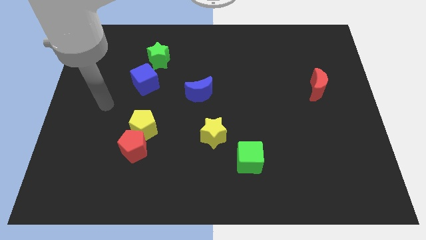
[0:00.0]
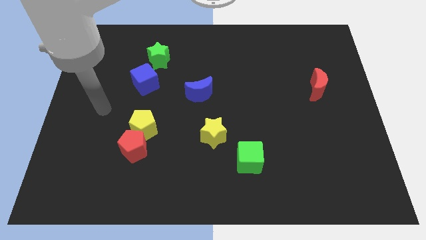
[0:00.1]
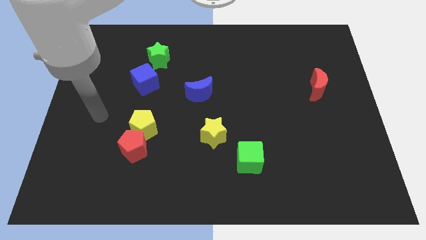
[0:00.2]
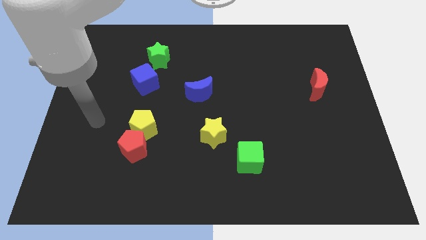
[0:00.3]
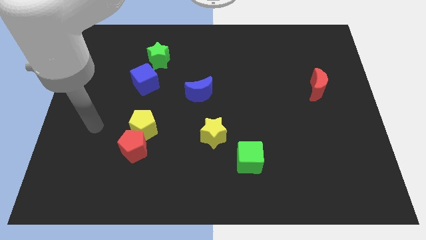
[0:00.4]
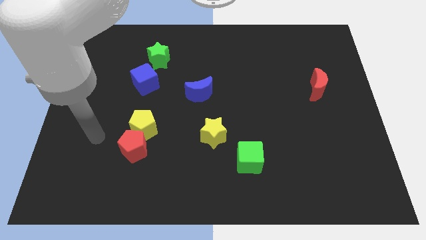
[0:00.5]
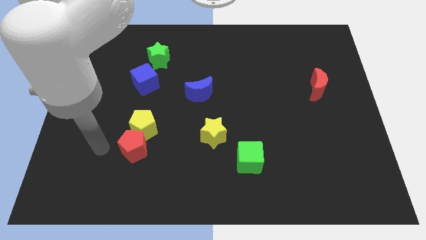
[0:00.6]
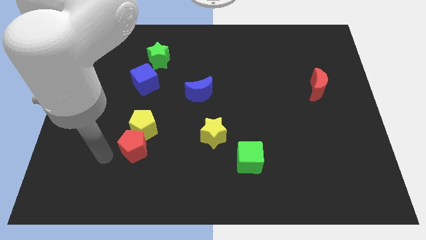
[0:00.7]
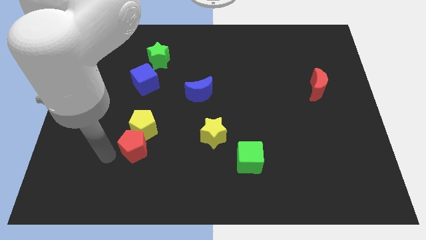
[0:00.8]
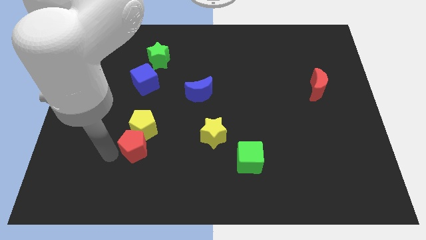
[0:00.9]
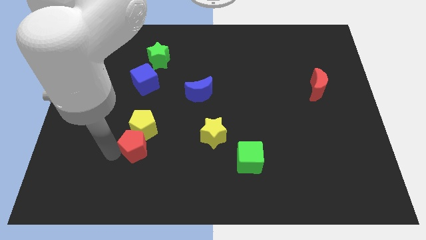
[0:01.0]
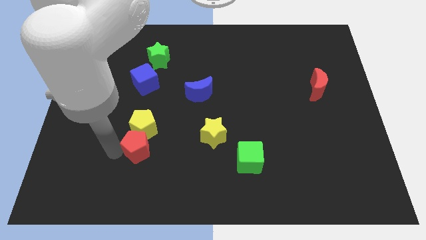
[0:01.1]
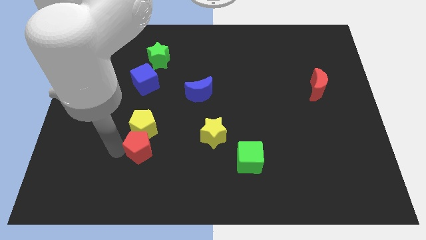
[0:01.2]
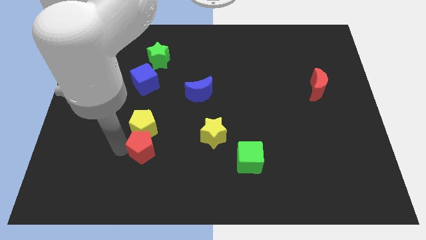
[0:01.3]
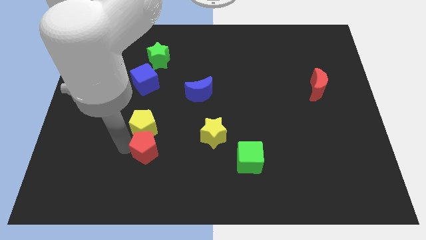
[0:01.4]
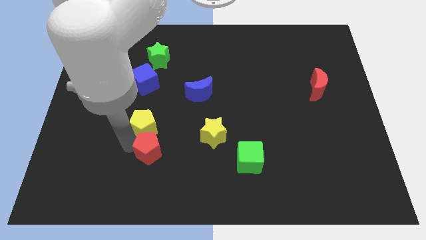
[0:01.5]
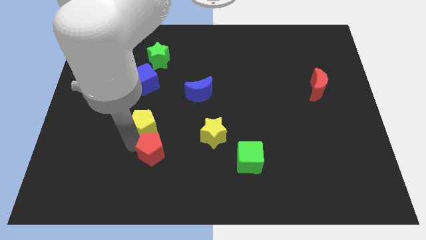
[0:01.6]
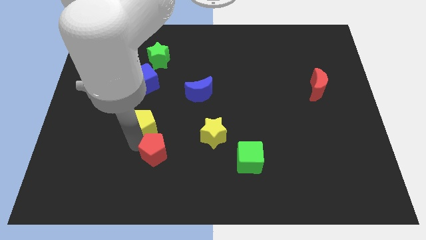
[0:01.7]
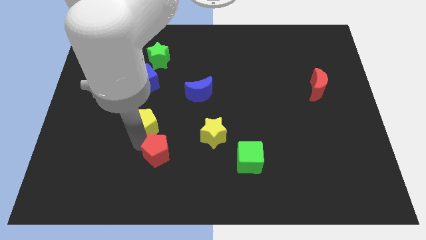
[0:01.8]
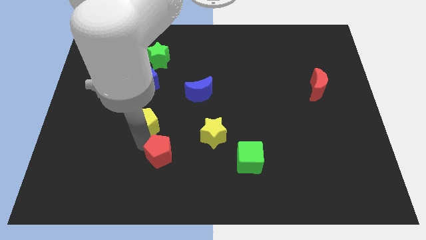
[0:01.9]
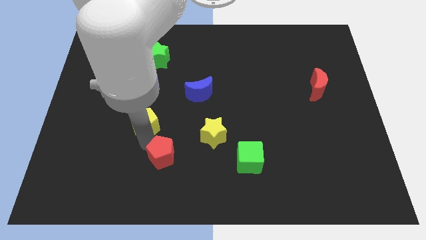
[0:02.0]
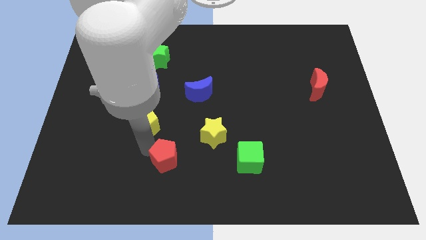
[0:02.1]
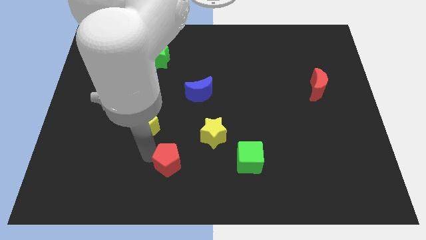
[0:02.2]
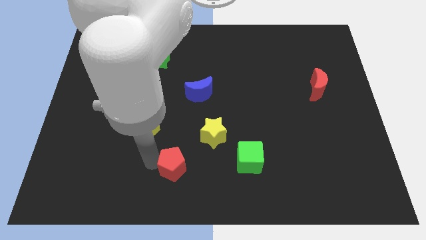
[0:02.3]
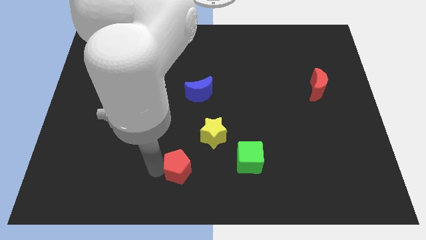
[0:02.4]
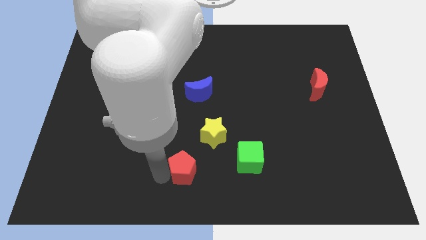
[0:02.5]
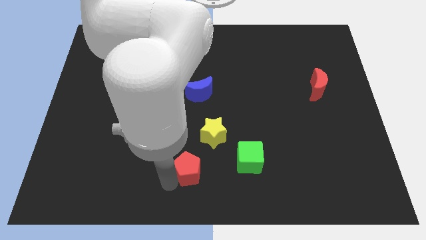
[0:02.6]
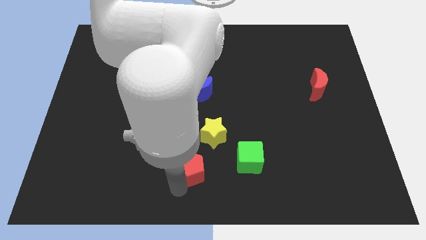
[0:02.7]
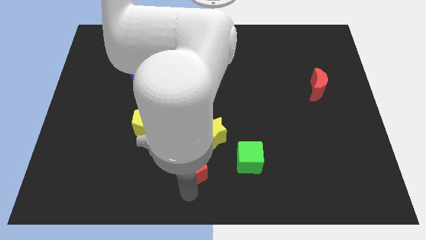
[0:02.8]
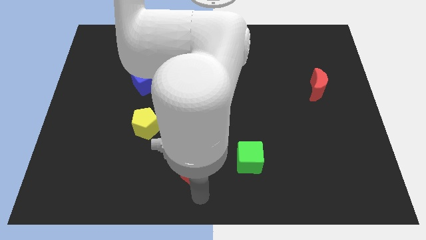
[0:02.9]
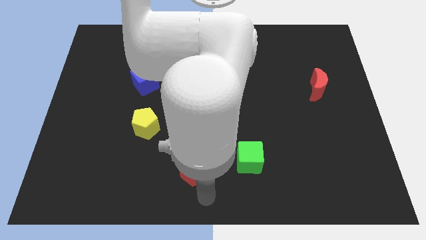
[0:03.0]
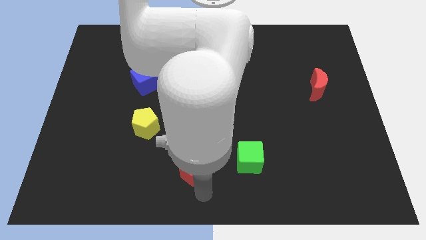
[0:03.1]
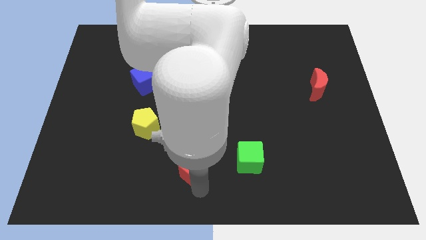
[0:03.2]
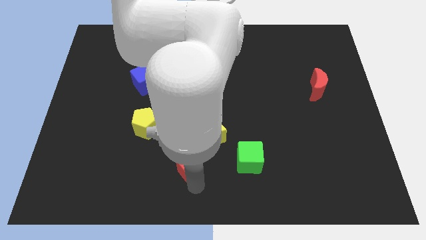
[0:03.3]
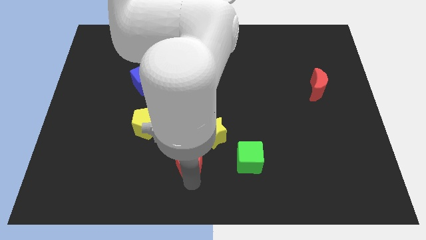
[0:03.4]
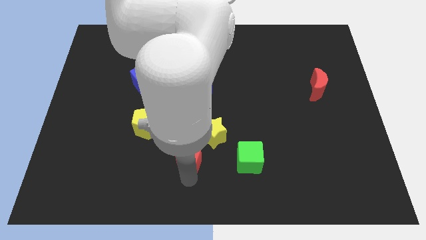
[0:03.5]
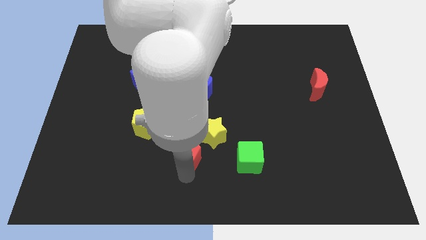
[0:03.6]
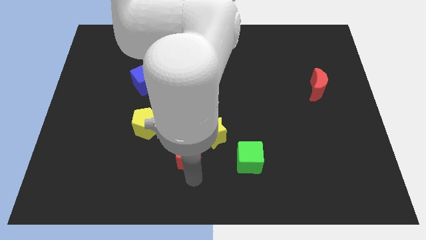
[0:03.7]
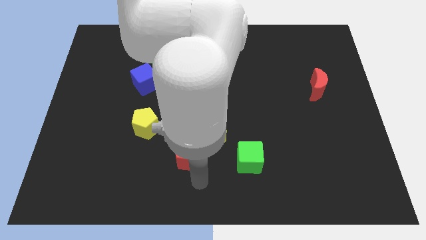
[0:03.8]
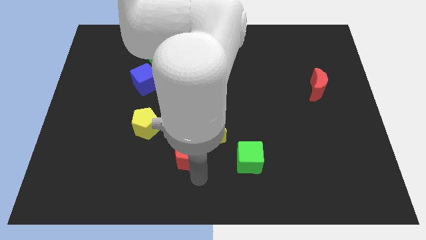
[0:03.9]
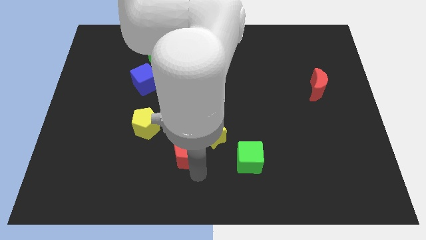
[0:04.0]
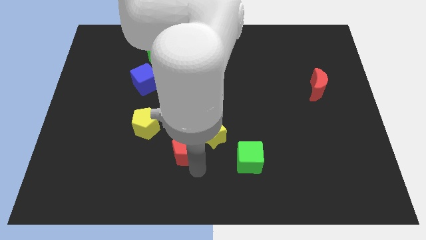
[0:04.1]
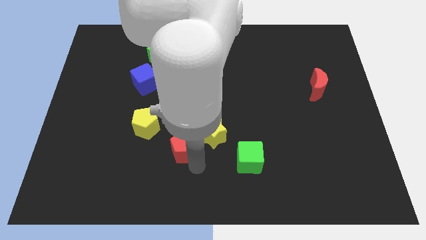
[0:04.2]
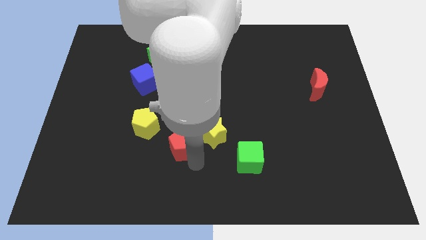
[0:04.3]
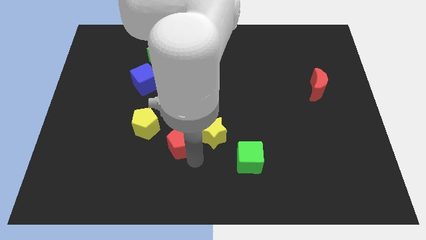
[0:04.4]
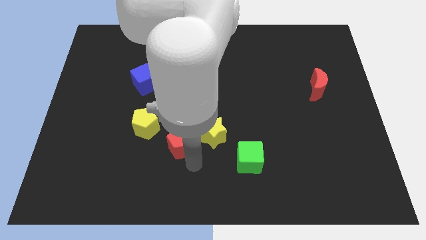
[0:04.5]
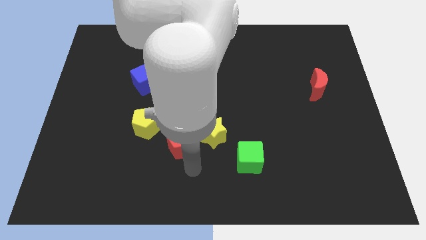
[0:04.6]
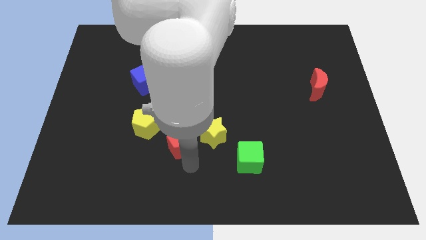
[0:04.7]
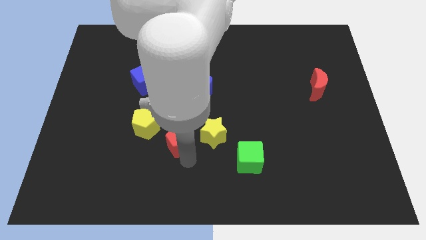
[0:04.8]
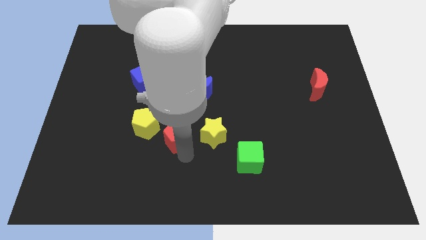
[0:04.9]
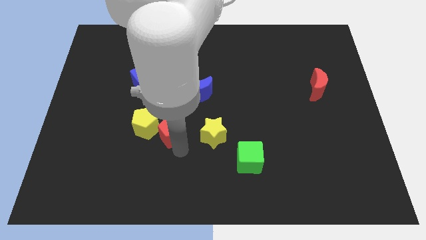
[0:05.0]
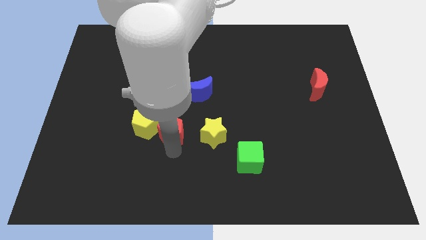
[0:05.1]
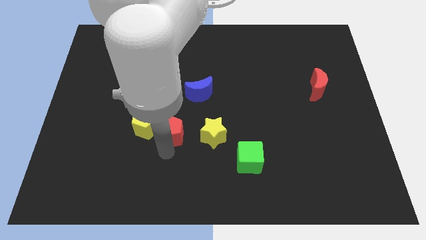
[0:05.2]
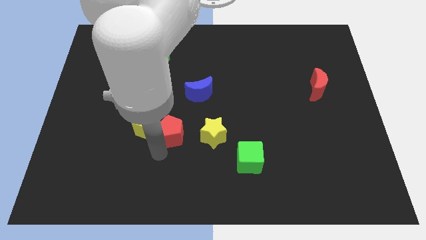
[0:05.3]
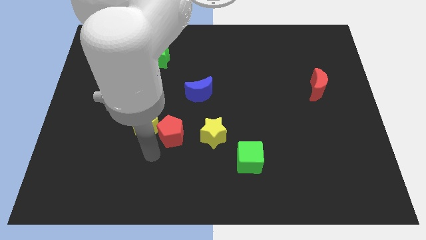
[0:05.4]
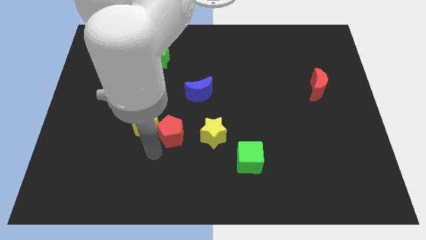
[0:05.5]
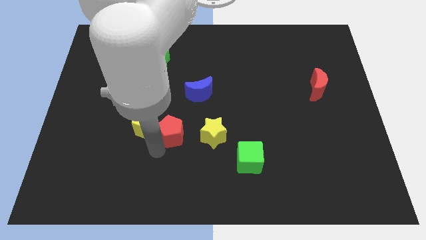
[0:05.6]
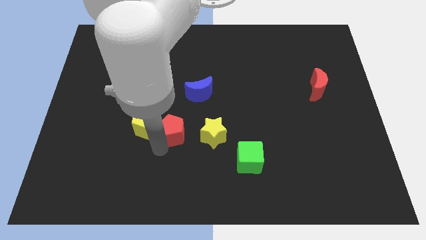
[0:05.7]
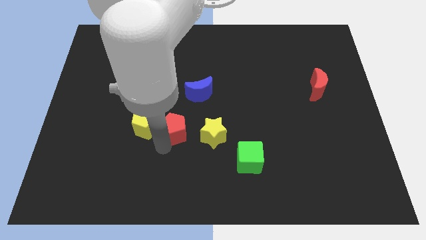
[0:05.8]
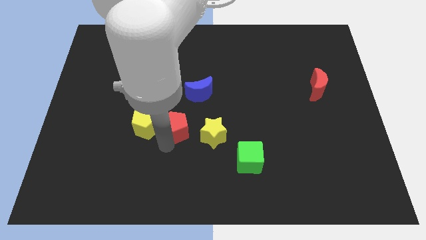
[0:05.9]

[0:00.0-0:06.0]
slide the red pentagon to the top left of the yellow star

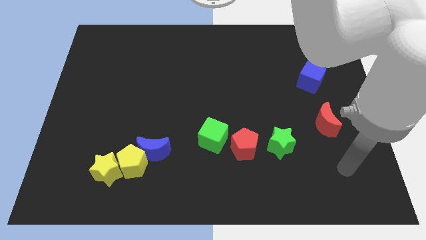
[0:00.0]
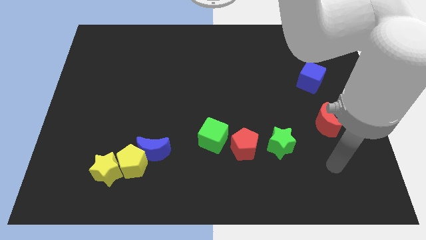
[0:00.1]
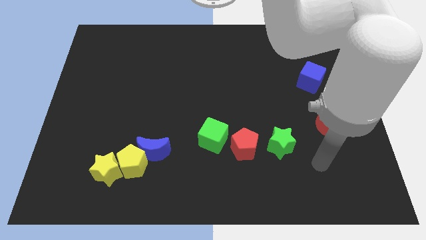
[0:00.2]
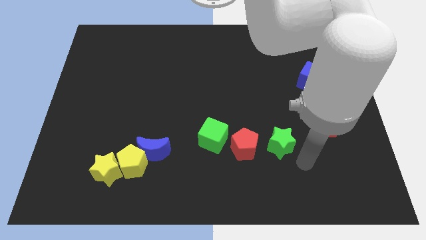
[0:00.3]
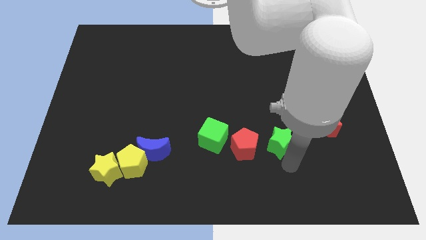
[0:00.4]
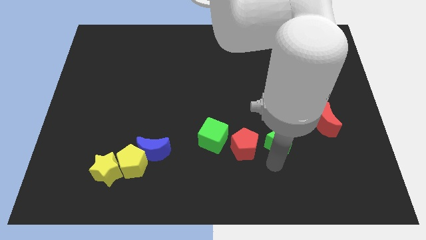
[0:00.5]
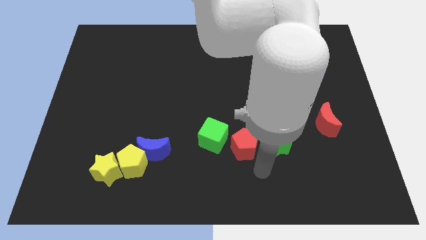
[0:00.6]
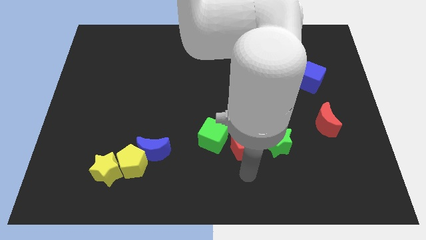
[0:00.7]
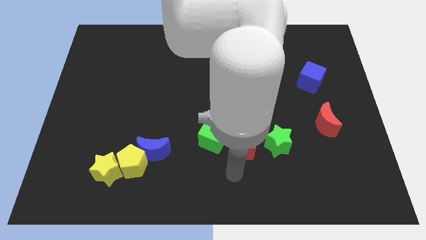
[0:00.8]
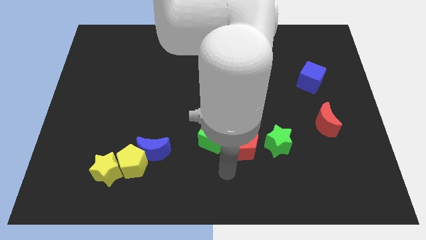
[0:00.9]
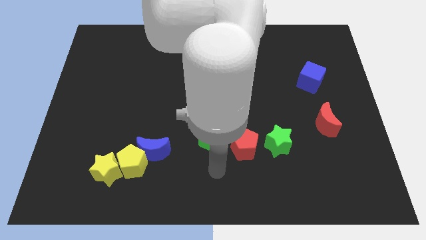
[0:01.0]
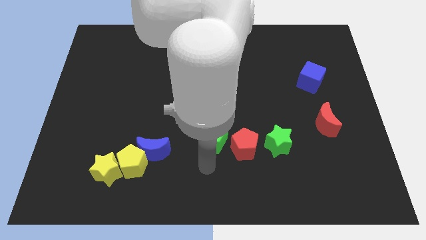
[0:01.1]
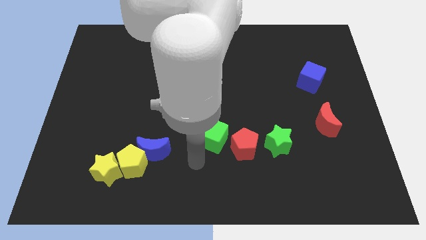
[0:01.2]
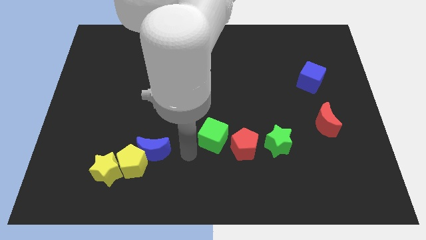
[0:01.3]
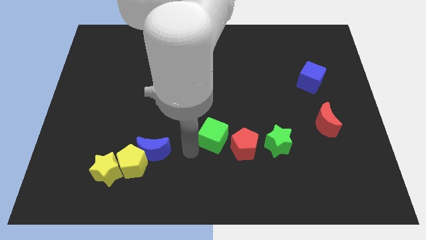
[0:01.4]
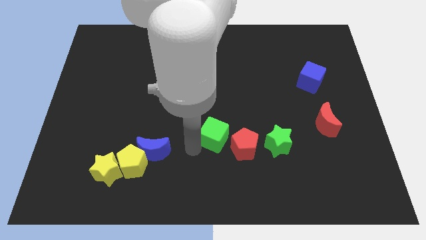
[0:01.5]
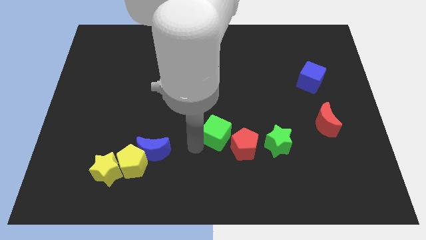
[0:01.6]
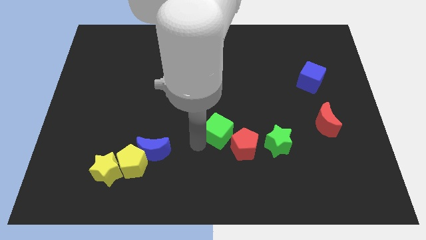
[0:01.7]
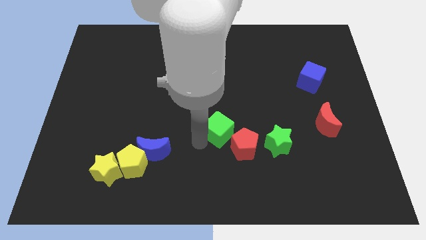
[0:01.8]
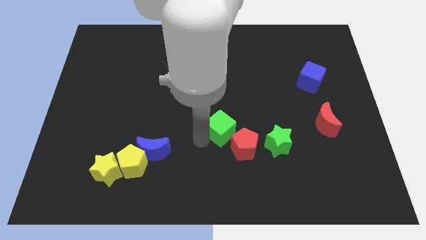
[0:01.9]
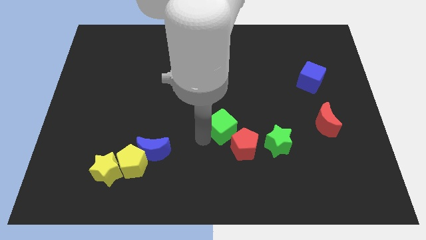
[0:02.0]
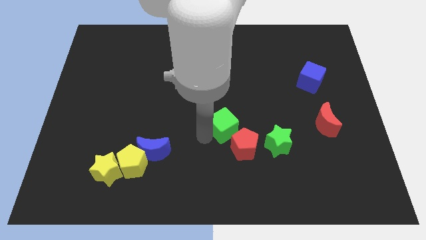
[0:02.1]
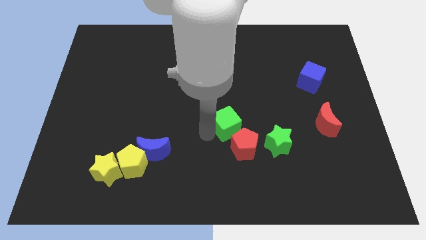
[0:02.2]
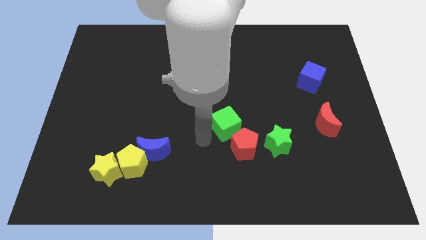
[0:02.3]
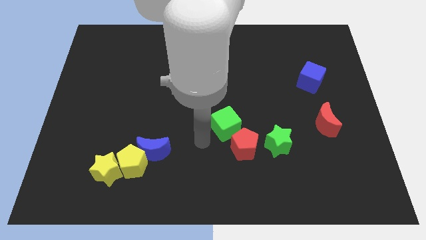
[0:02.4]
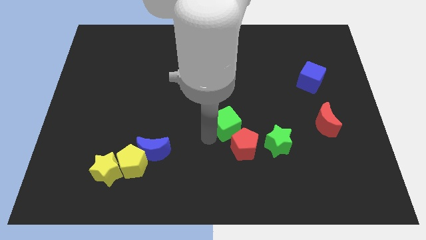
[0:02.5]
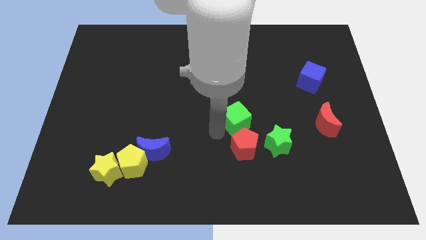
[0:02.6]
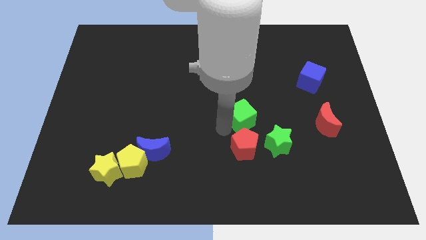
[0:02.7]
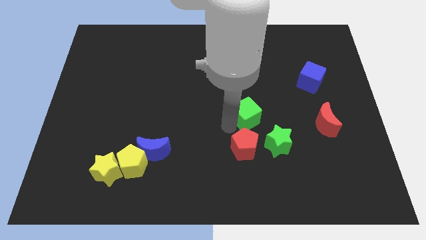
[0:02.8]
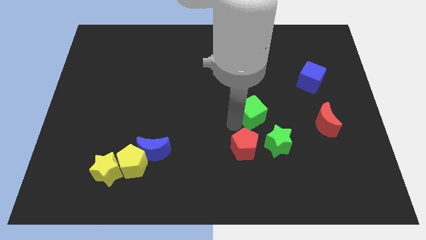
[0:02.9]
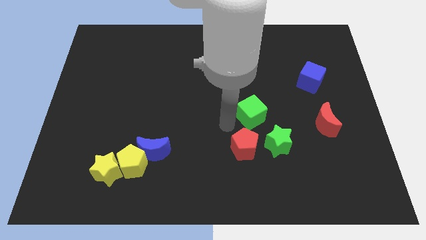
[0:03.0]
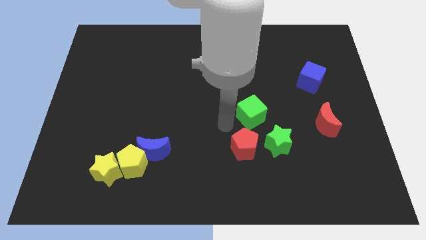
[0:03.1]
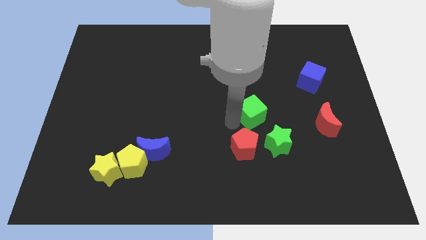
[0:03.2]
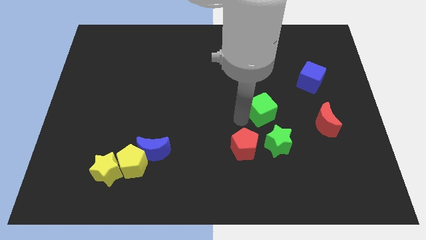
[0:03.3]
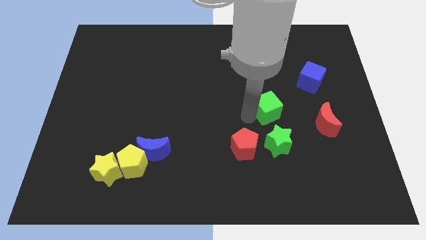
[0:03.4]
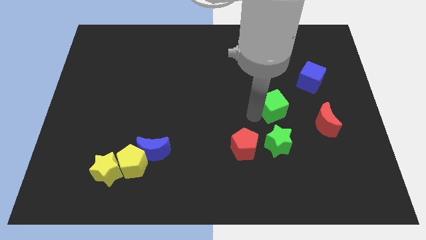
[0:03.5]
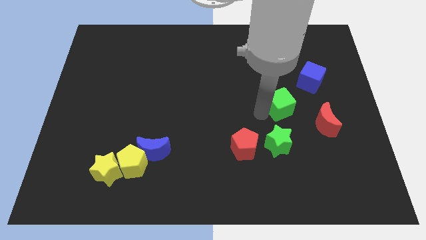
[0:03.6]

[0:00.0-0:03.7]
put the green cube to the bottom left of the blue cube
